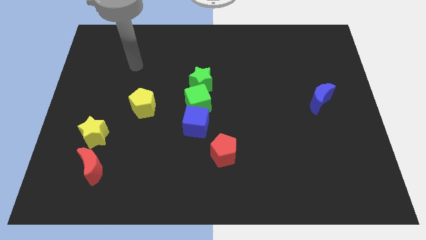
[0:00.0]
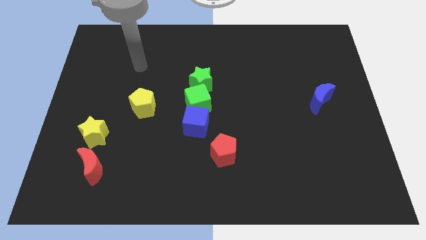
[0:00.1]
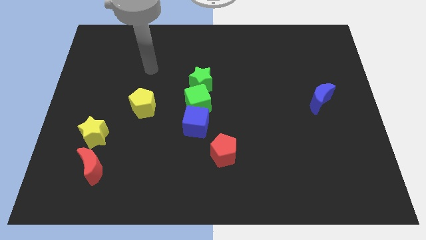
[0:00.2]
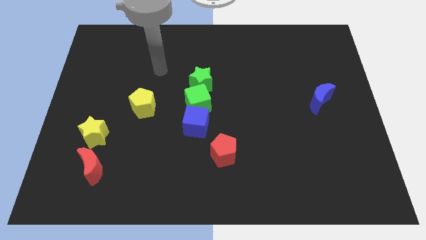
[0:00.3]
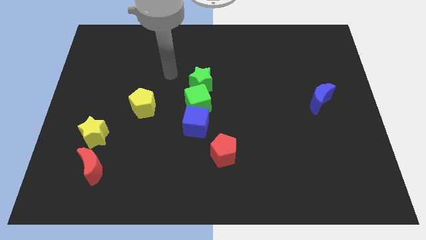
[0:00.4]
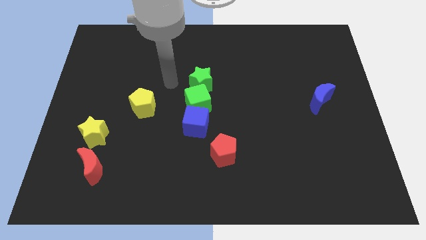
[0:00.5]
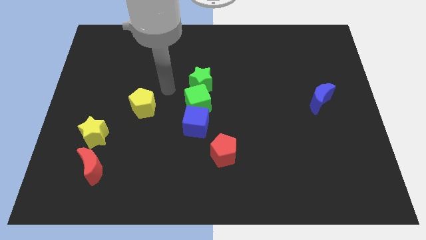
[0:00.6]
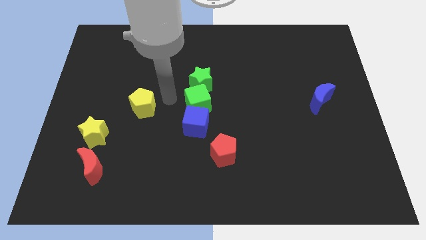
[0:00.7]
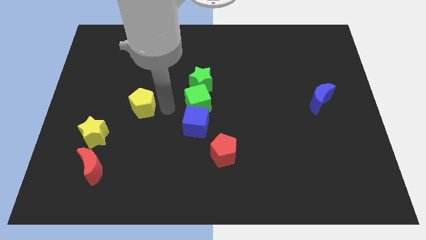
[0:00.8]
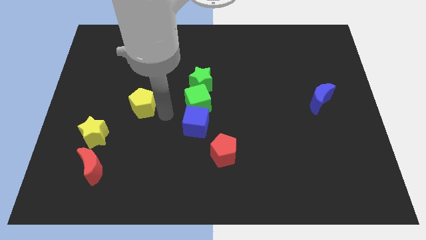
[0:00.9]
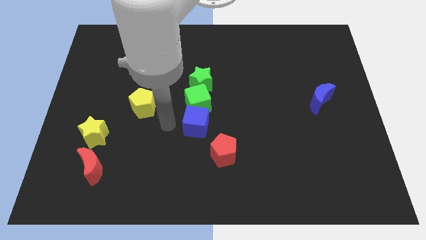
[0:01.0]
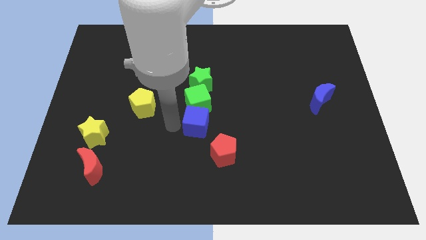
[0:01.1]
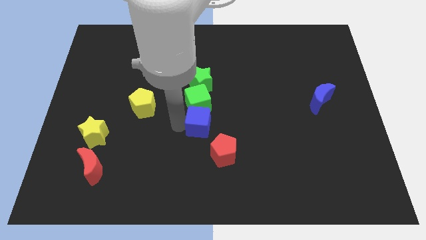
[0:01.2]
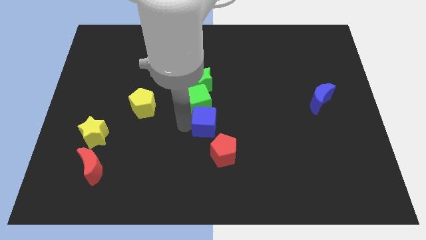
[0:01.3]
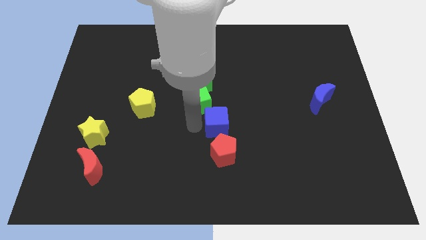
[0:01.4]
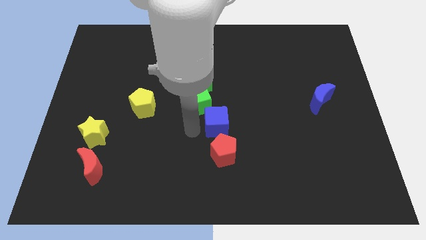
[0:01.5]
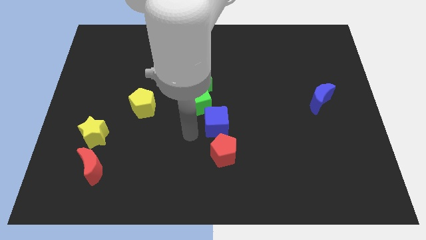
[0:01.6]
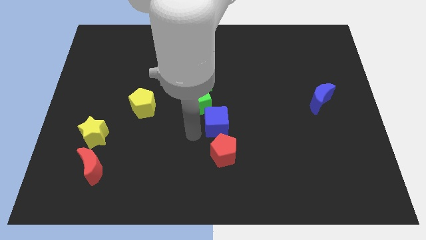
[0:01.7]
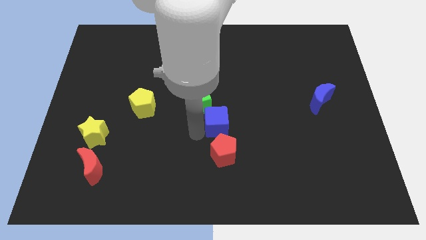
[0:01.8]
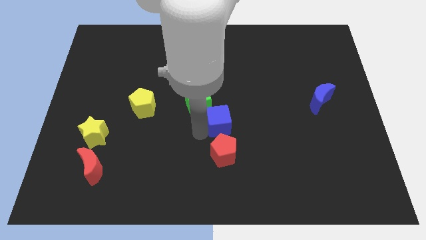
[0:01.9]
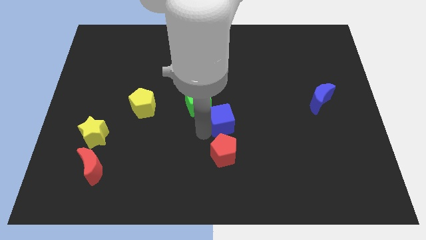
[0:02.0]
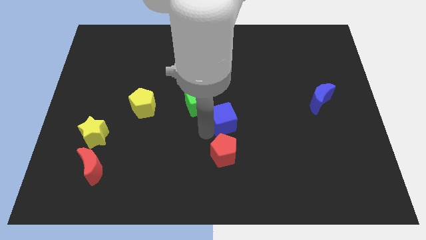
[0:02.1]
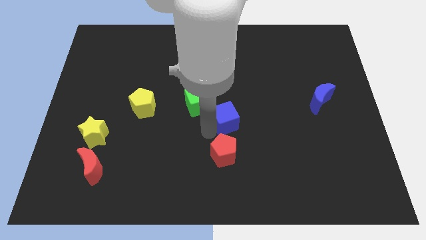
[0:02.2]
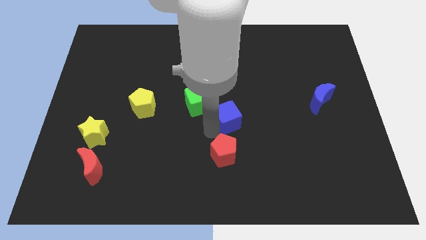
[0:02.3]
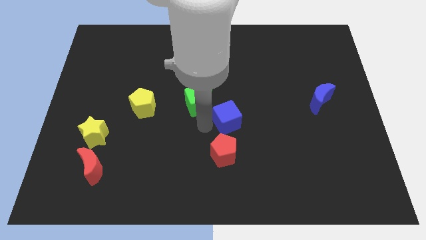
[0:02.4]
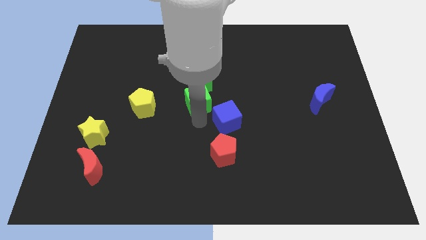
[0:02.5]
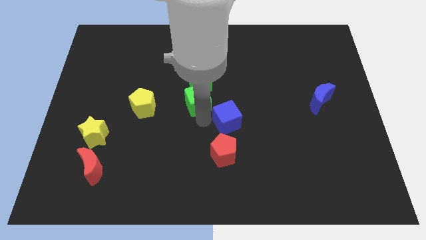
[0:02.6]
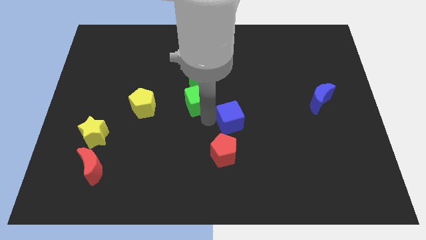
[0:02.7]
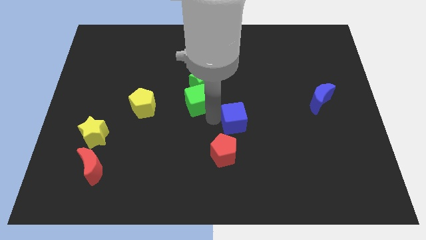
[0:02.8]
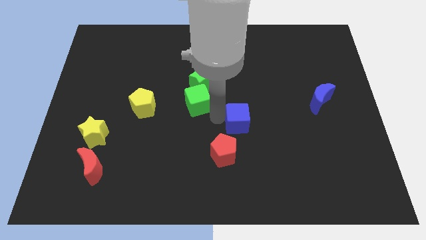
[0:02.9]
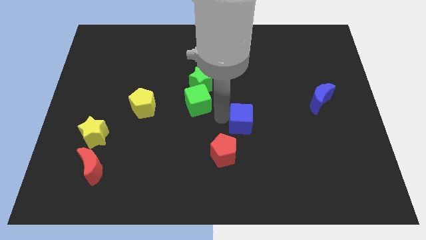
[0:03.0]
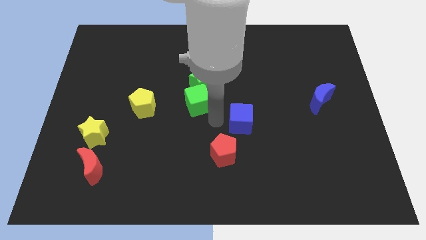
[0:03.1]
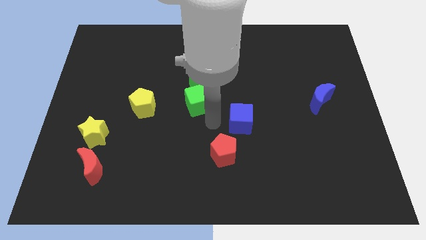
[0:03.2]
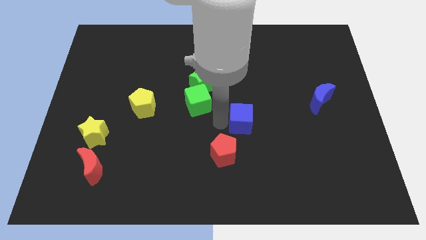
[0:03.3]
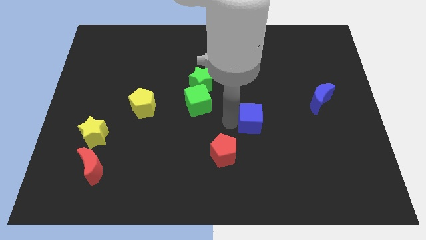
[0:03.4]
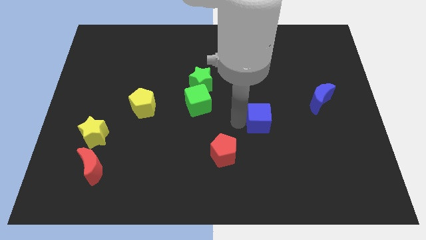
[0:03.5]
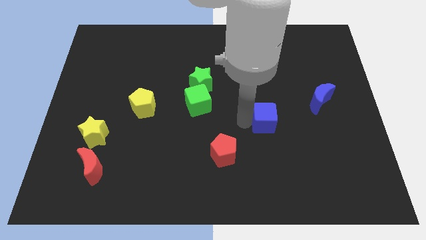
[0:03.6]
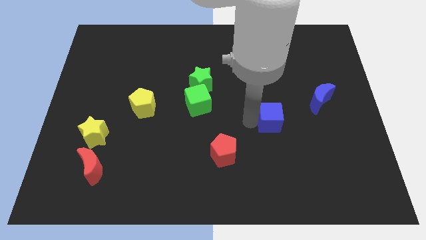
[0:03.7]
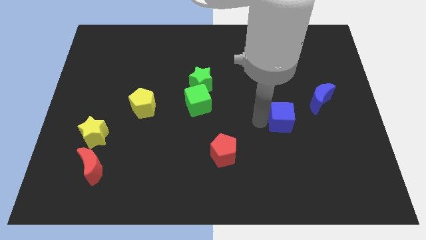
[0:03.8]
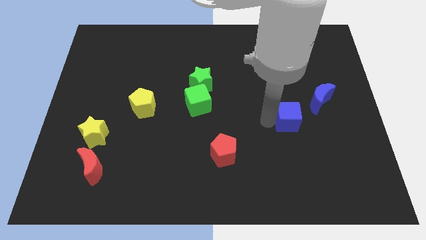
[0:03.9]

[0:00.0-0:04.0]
slide the blue cube right

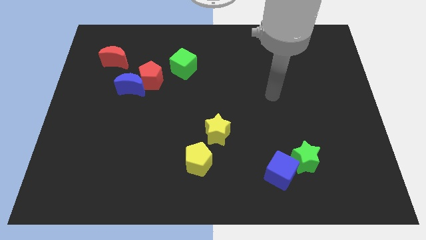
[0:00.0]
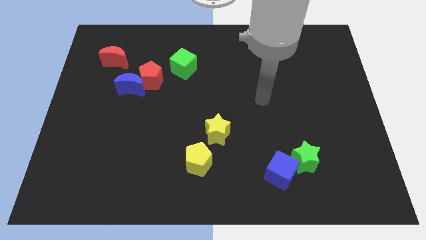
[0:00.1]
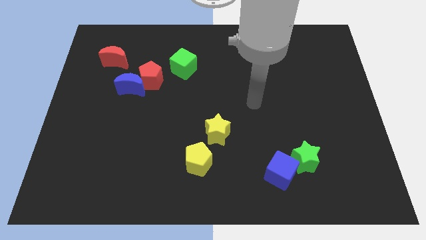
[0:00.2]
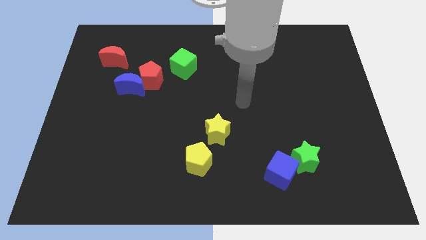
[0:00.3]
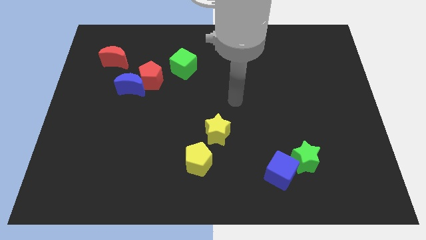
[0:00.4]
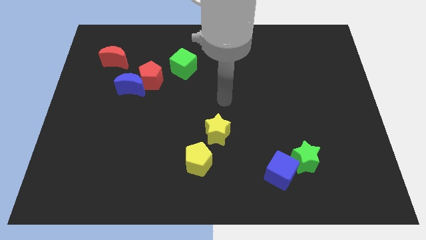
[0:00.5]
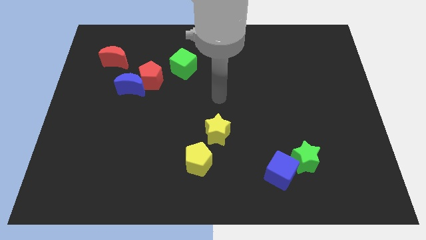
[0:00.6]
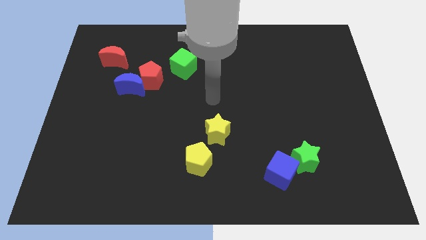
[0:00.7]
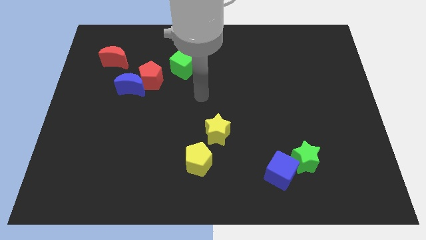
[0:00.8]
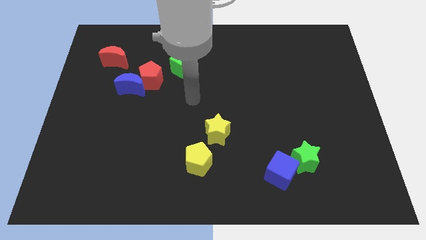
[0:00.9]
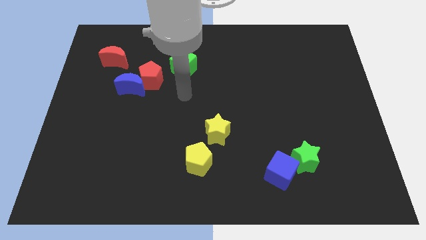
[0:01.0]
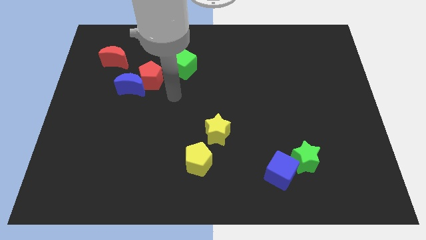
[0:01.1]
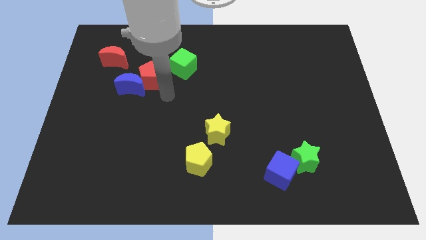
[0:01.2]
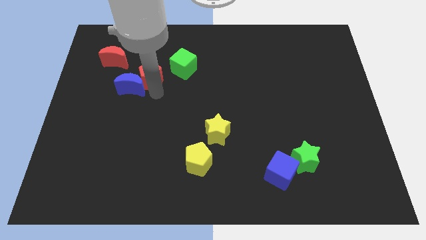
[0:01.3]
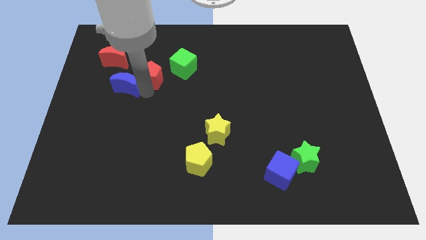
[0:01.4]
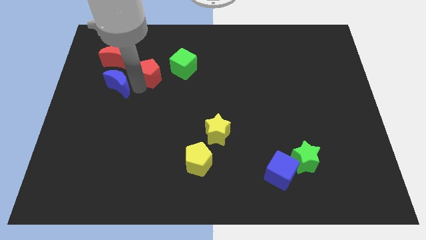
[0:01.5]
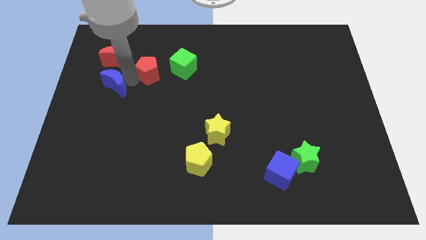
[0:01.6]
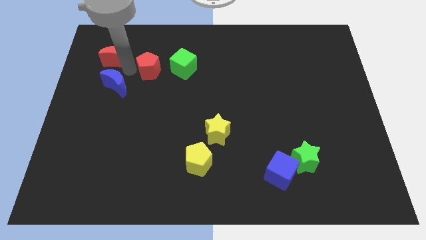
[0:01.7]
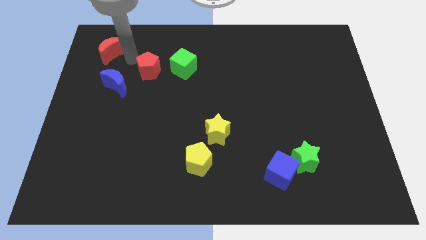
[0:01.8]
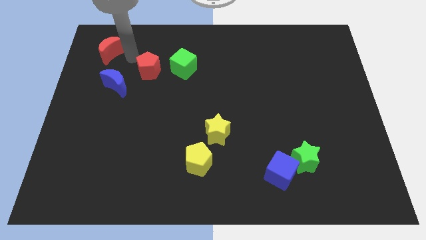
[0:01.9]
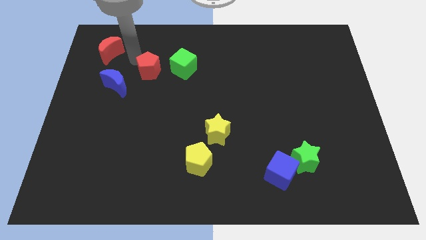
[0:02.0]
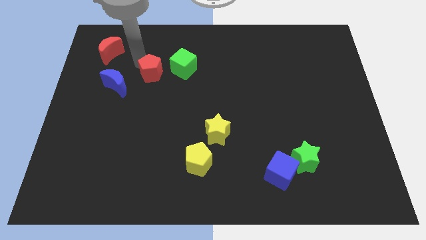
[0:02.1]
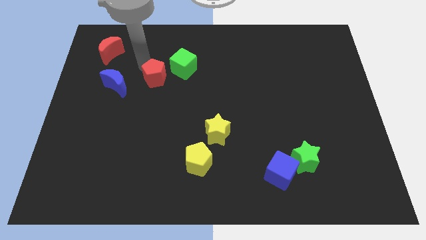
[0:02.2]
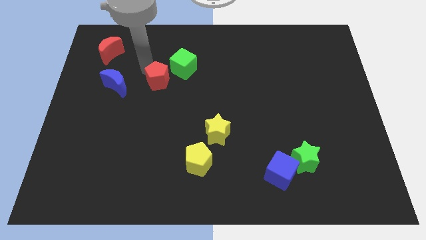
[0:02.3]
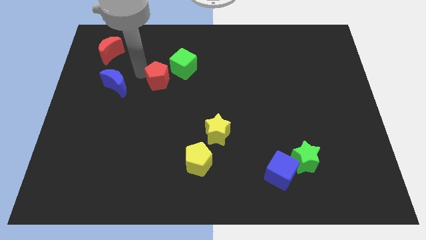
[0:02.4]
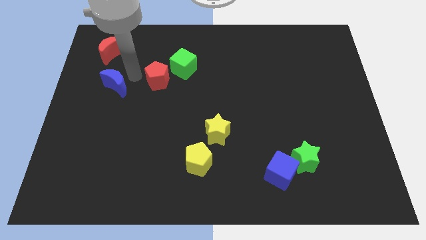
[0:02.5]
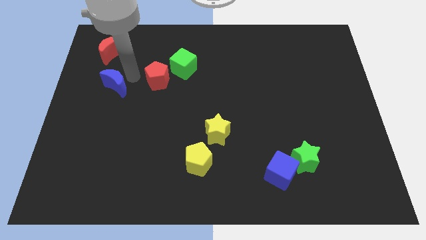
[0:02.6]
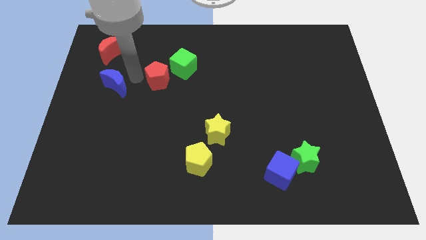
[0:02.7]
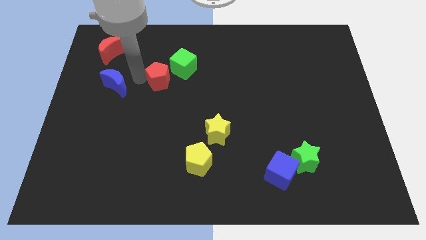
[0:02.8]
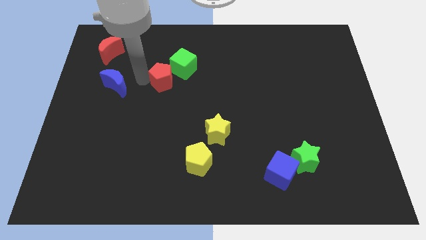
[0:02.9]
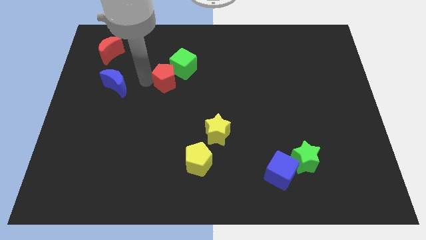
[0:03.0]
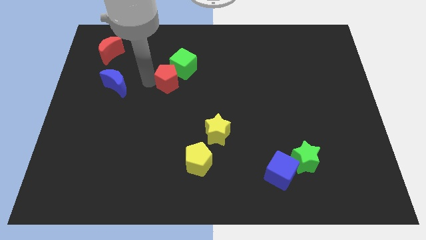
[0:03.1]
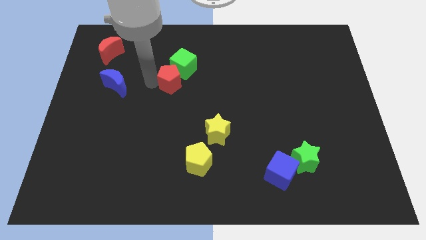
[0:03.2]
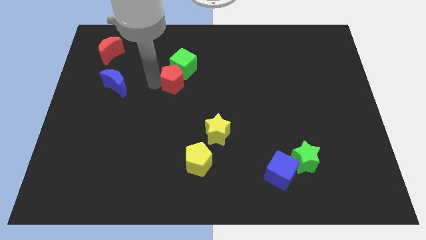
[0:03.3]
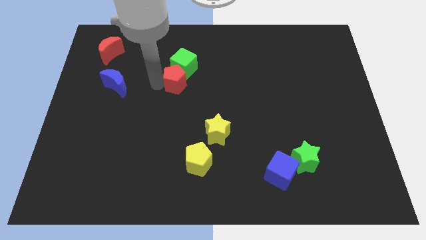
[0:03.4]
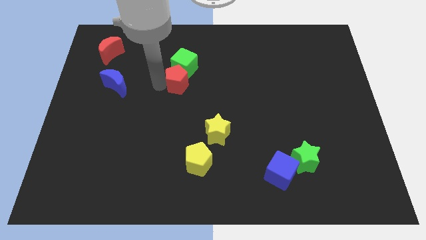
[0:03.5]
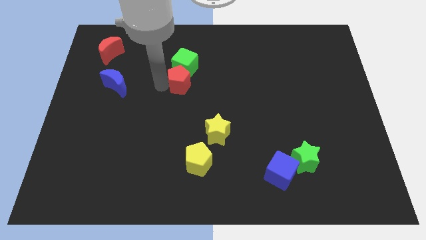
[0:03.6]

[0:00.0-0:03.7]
slide the red pentagon right slightly

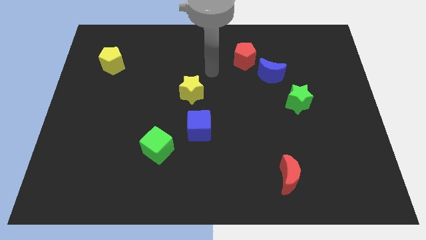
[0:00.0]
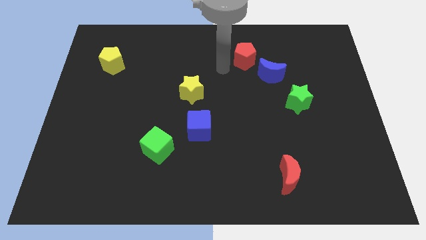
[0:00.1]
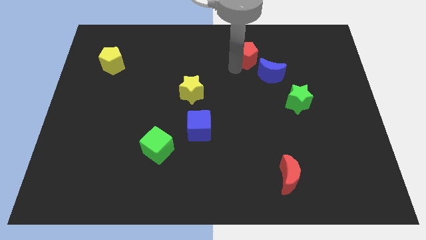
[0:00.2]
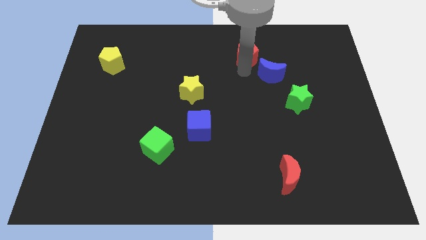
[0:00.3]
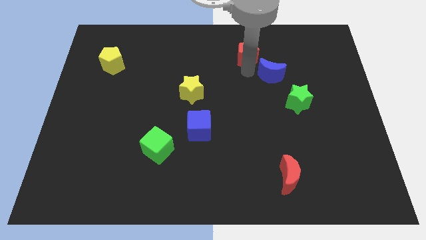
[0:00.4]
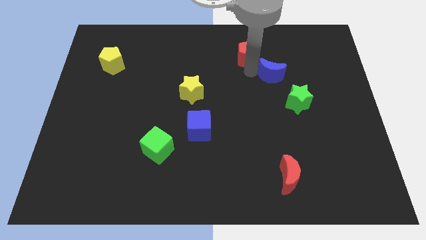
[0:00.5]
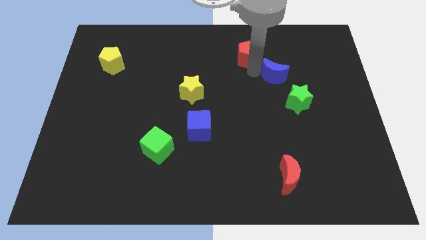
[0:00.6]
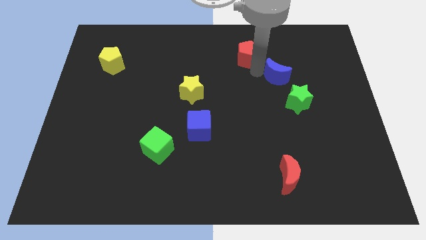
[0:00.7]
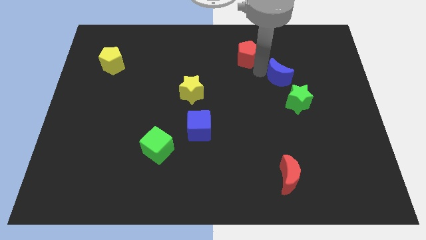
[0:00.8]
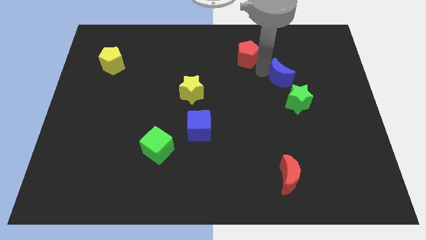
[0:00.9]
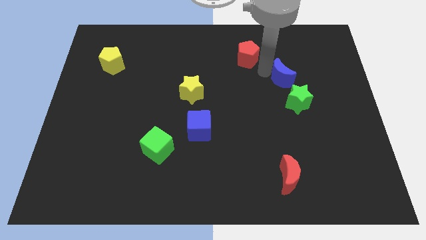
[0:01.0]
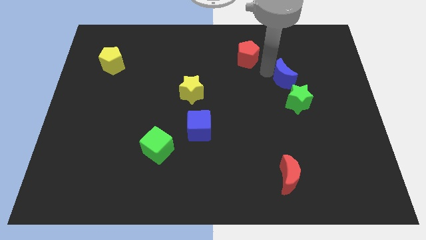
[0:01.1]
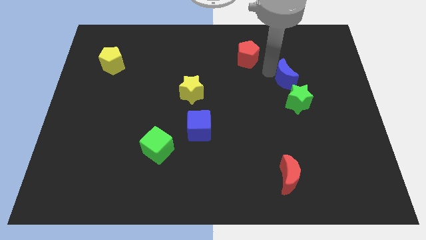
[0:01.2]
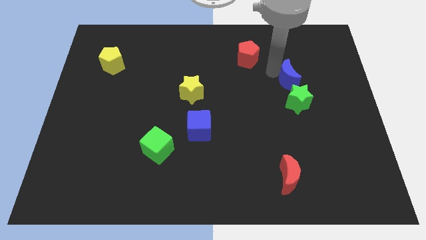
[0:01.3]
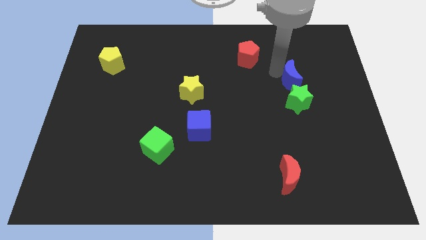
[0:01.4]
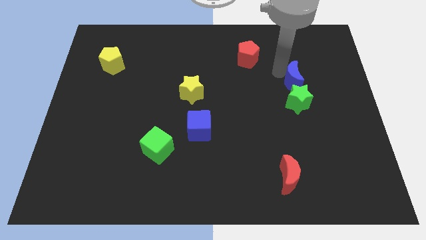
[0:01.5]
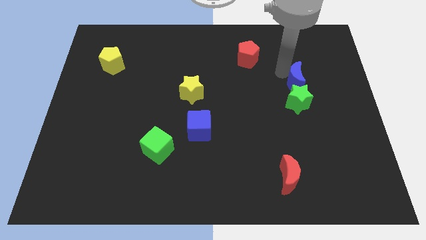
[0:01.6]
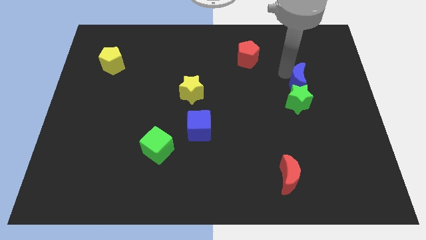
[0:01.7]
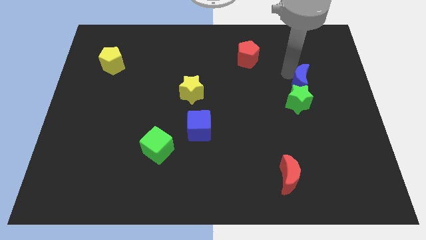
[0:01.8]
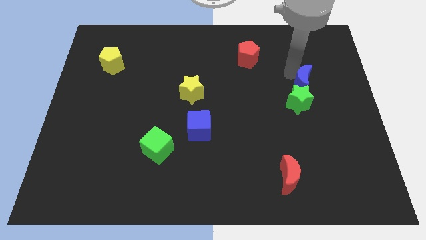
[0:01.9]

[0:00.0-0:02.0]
move the blue moon slightly down and then right
